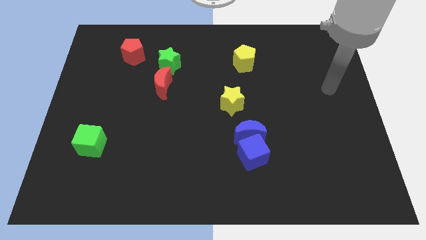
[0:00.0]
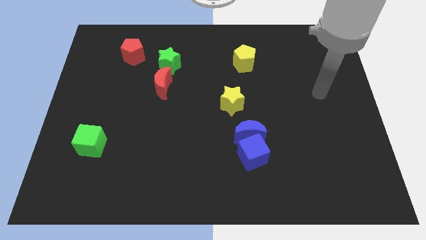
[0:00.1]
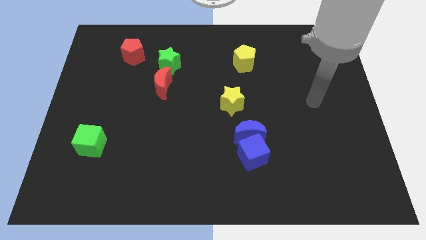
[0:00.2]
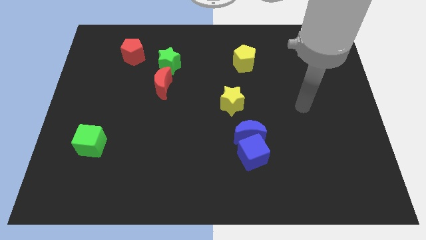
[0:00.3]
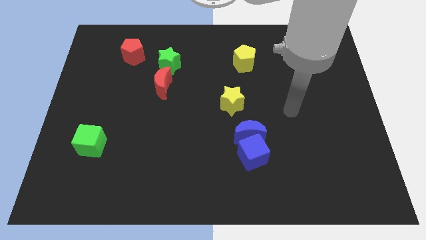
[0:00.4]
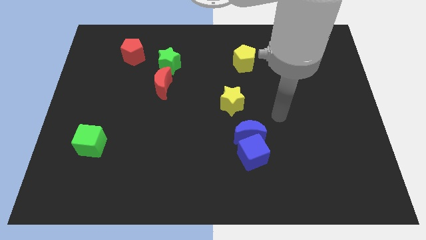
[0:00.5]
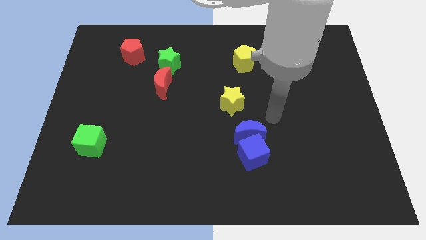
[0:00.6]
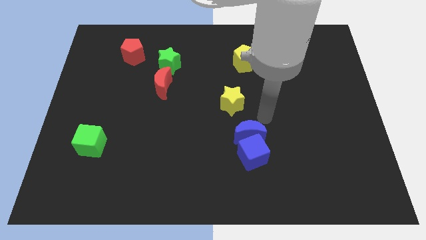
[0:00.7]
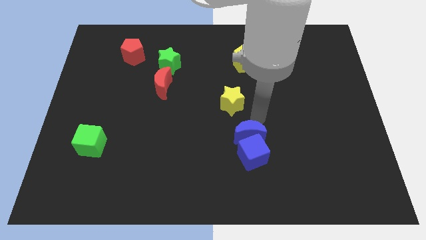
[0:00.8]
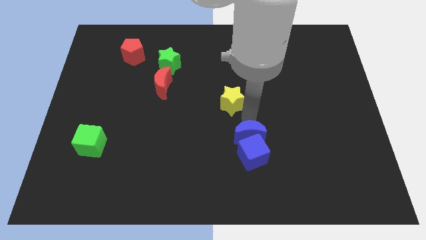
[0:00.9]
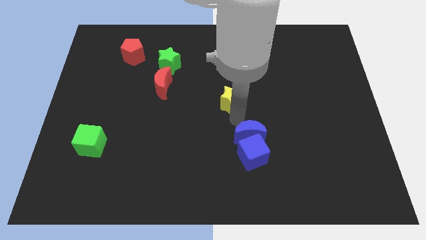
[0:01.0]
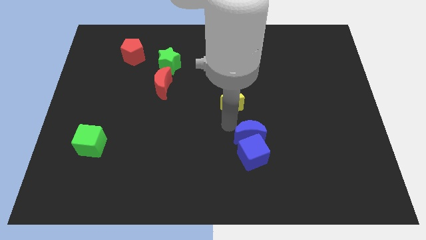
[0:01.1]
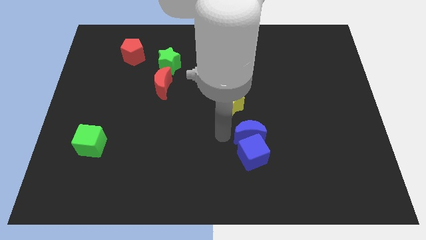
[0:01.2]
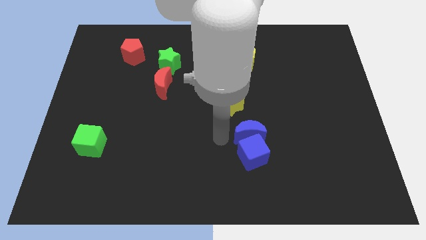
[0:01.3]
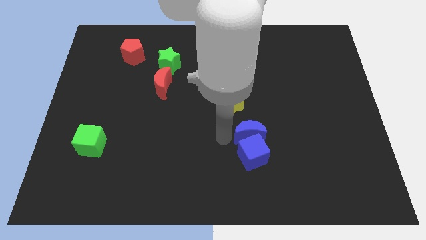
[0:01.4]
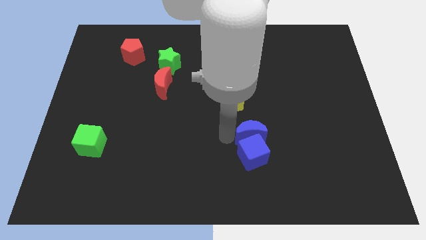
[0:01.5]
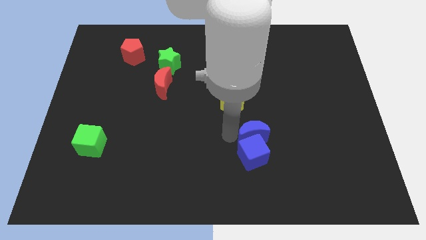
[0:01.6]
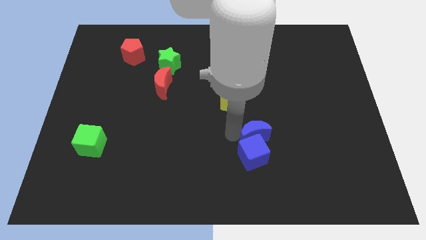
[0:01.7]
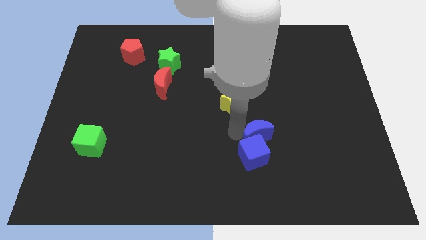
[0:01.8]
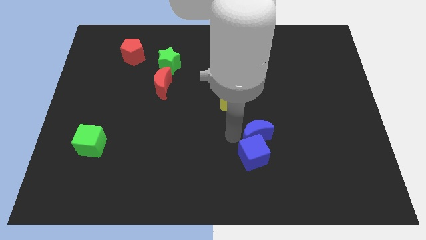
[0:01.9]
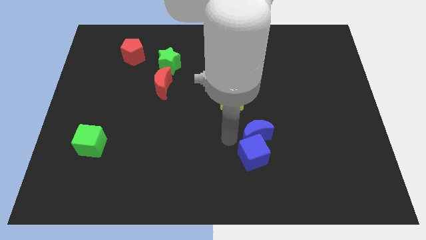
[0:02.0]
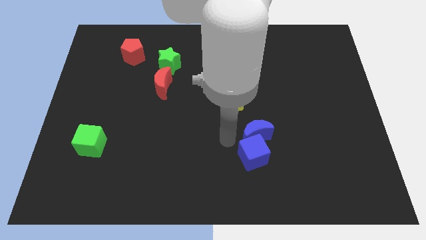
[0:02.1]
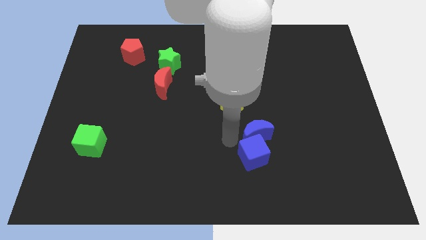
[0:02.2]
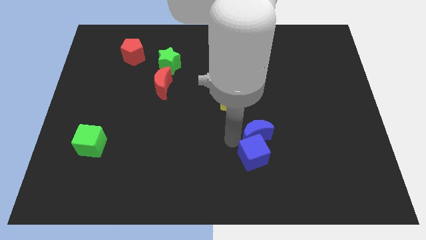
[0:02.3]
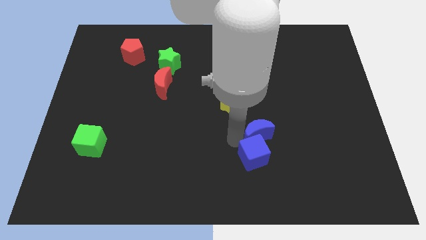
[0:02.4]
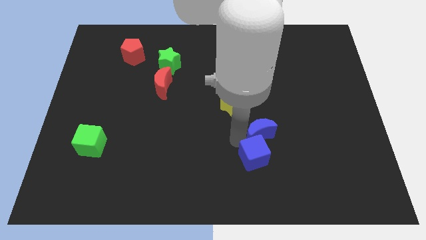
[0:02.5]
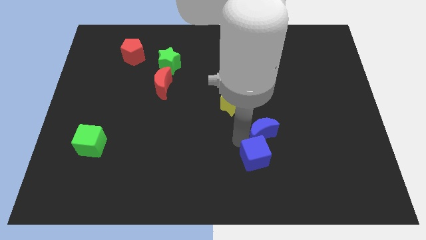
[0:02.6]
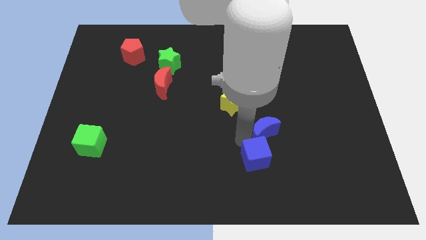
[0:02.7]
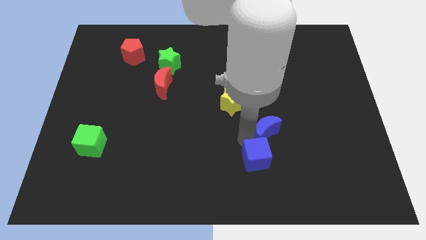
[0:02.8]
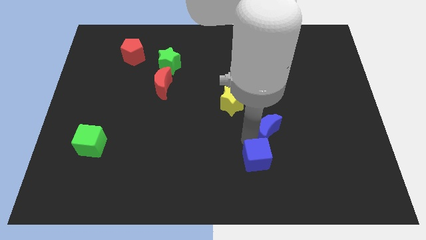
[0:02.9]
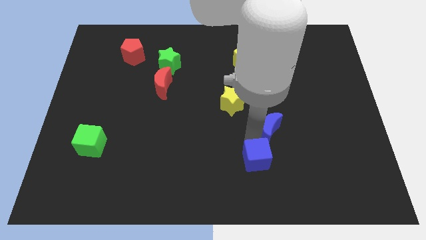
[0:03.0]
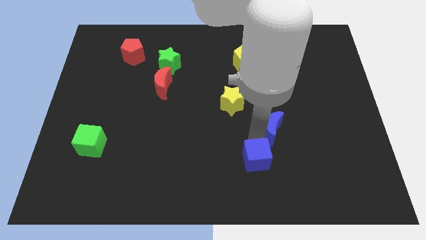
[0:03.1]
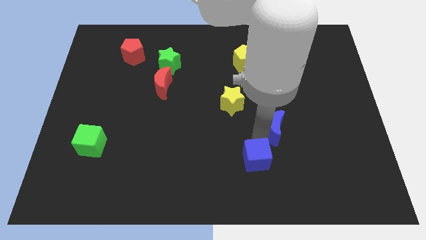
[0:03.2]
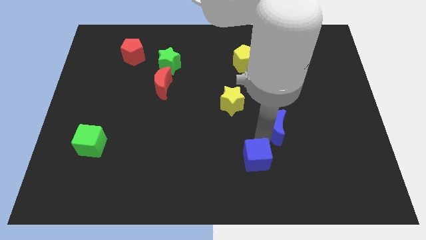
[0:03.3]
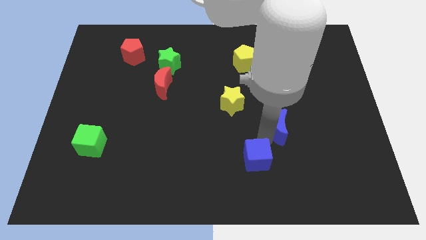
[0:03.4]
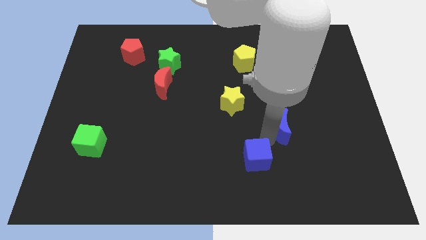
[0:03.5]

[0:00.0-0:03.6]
push the blue moon to the right a little bit

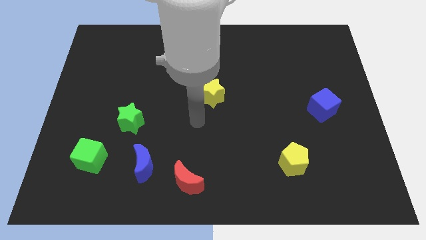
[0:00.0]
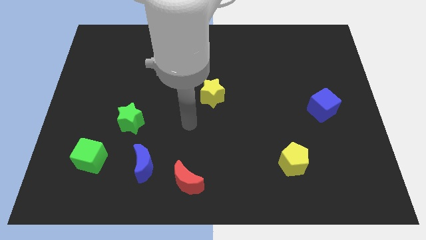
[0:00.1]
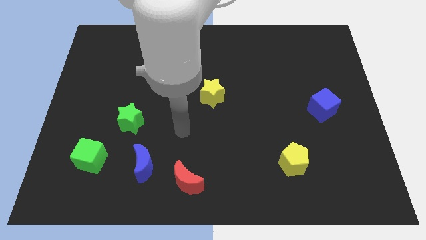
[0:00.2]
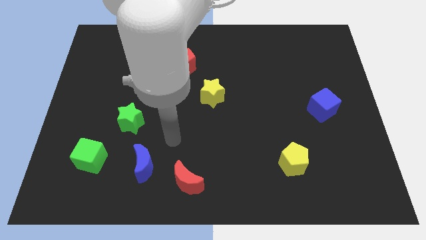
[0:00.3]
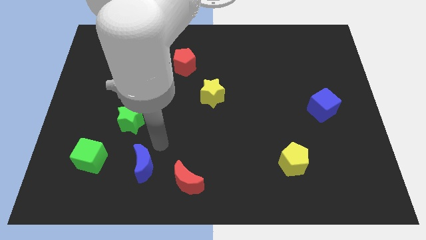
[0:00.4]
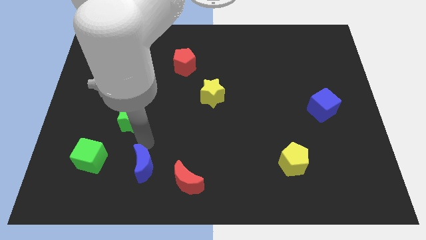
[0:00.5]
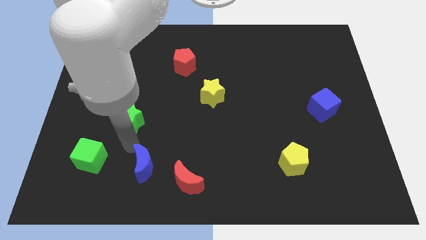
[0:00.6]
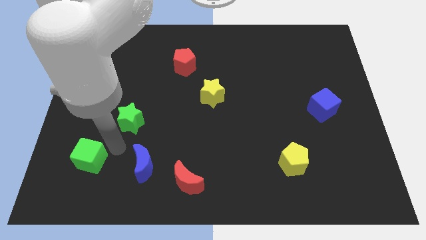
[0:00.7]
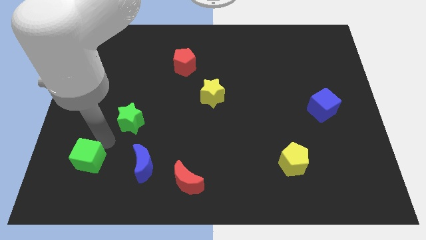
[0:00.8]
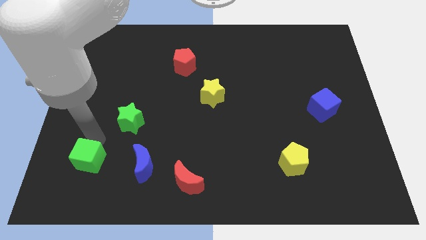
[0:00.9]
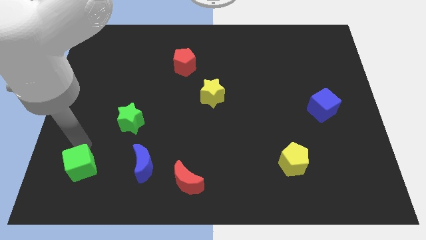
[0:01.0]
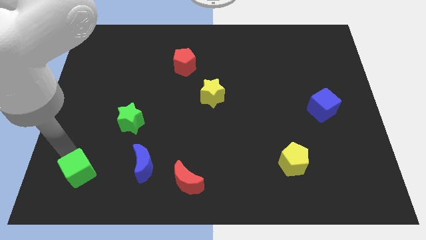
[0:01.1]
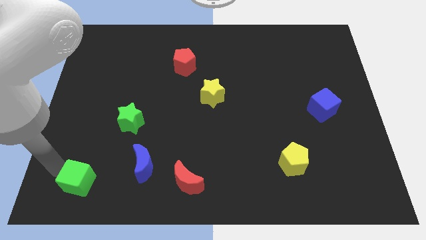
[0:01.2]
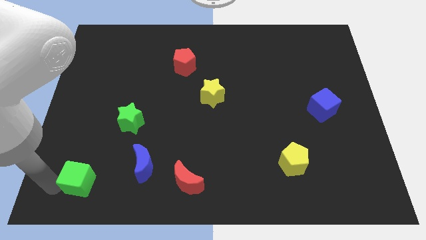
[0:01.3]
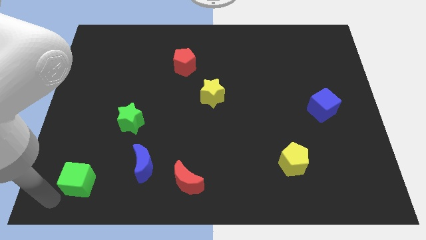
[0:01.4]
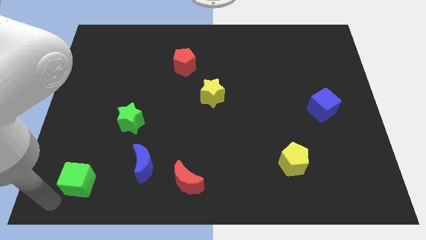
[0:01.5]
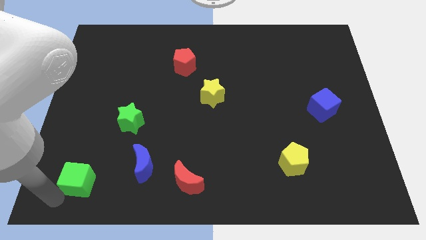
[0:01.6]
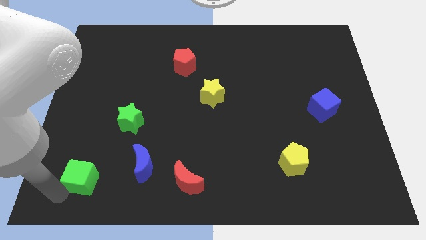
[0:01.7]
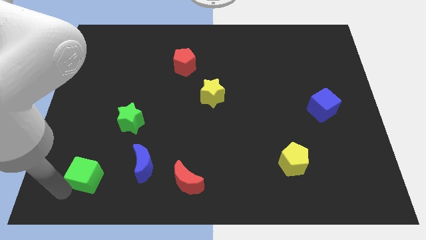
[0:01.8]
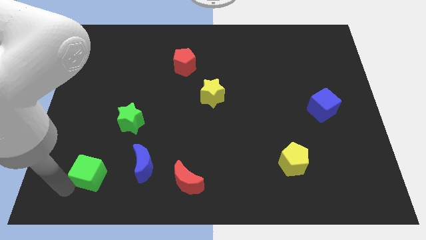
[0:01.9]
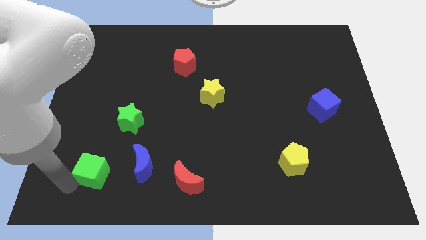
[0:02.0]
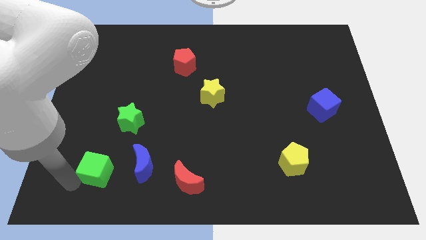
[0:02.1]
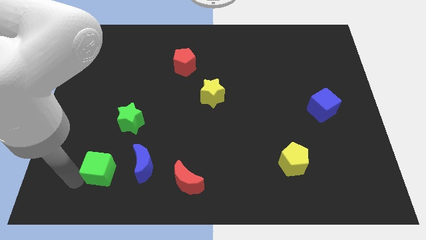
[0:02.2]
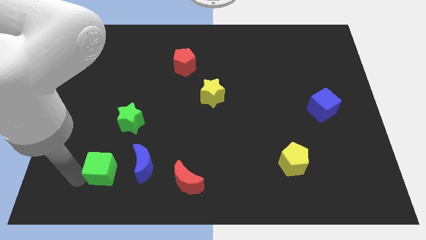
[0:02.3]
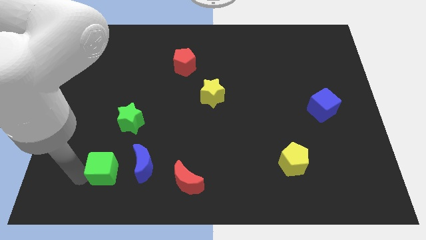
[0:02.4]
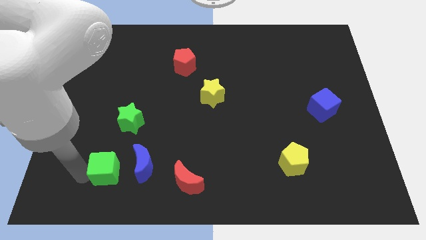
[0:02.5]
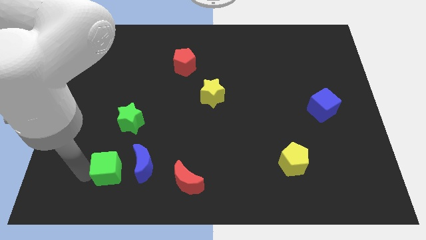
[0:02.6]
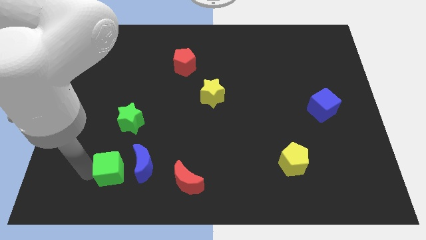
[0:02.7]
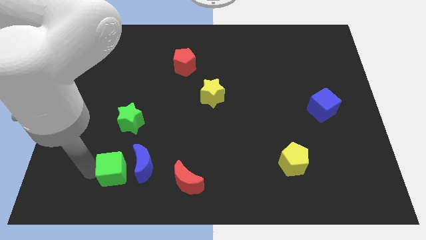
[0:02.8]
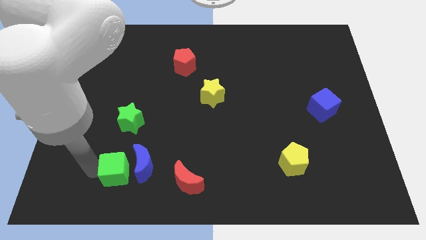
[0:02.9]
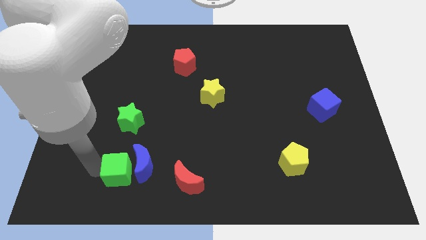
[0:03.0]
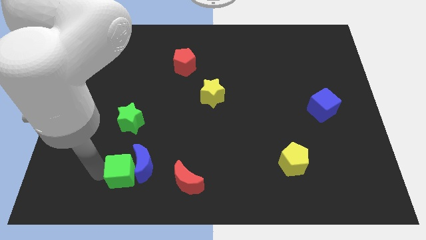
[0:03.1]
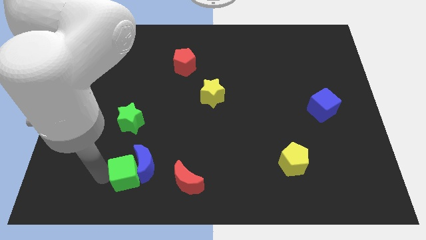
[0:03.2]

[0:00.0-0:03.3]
slide the green cube a little right

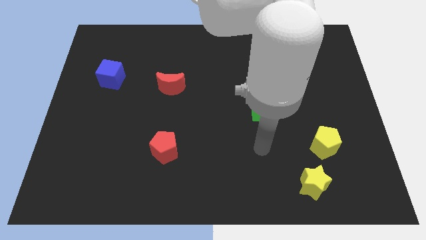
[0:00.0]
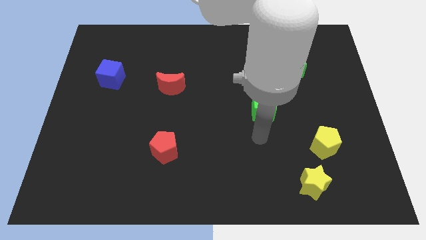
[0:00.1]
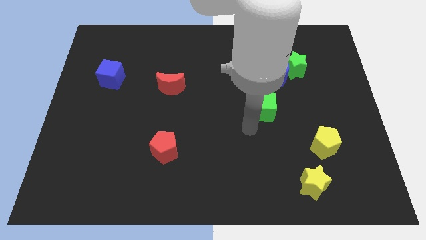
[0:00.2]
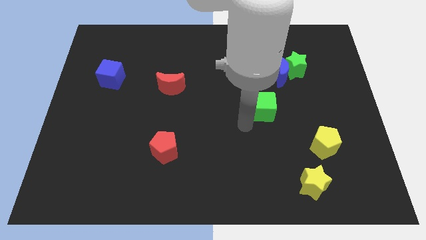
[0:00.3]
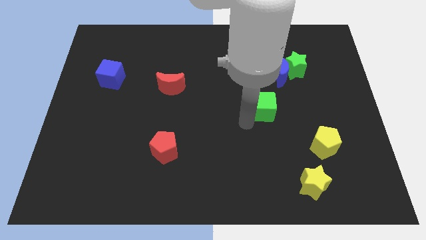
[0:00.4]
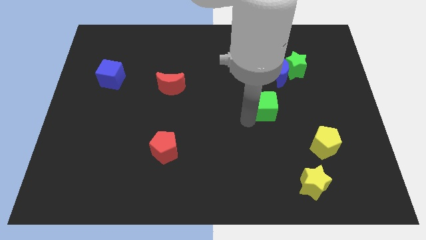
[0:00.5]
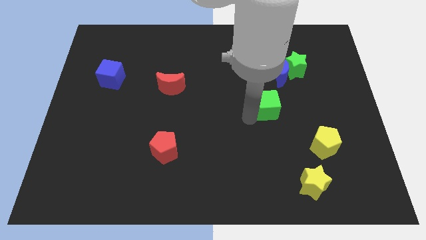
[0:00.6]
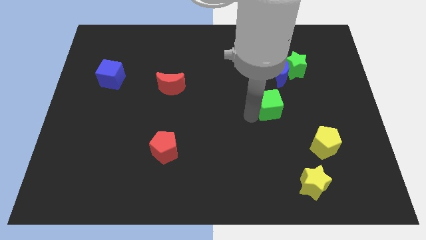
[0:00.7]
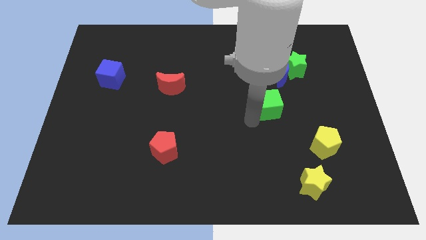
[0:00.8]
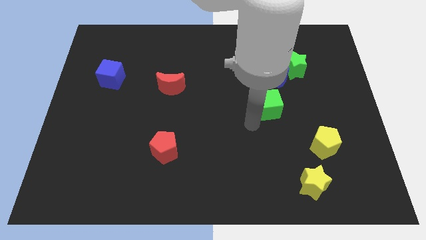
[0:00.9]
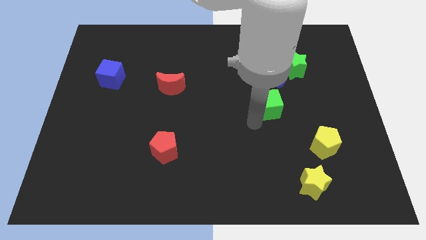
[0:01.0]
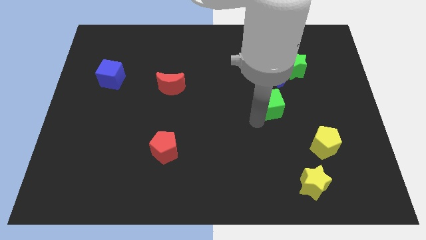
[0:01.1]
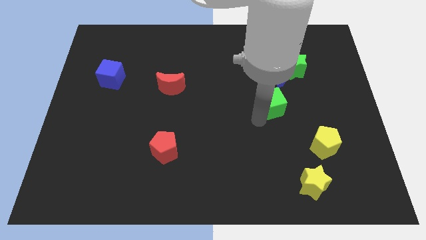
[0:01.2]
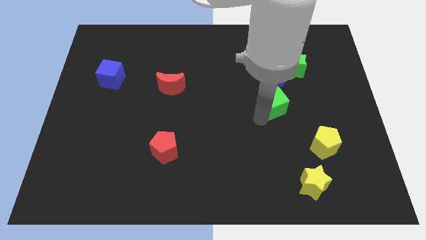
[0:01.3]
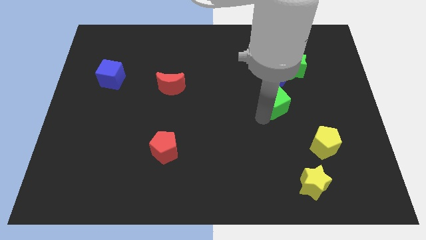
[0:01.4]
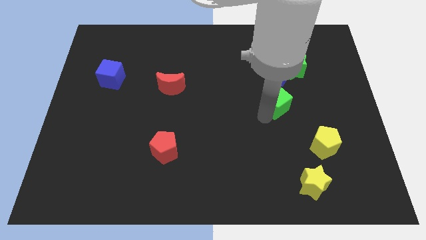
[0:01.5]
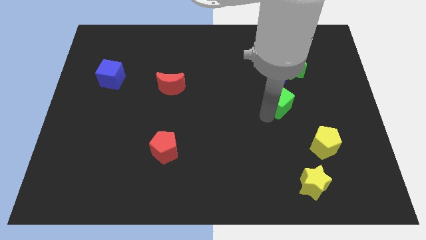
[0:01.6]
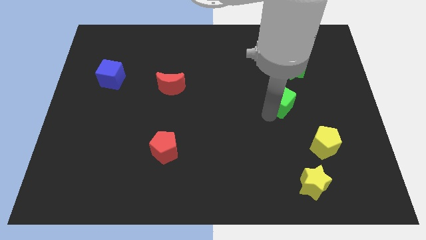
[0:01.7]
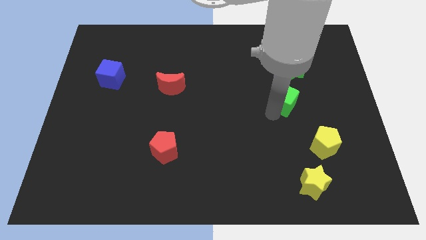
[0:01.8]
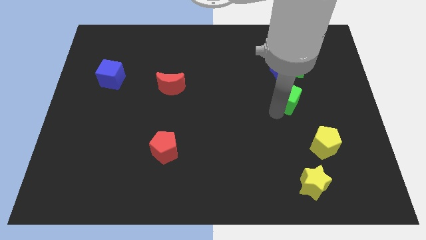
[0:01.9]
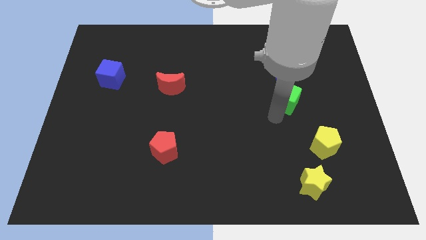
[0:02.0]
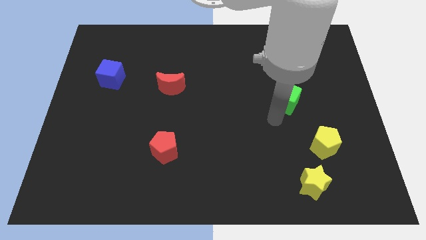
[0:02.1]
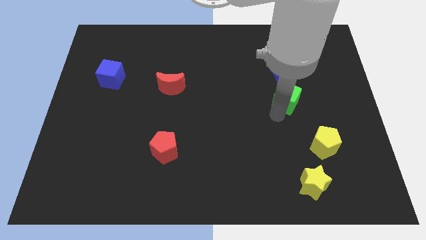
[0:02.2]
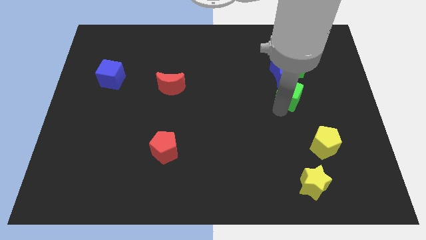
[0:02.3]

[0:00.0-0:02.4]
push the green cube upwards and right slightly
